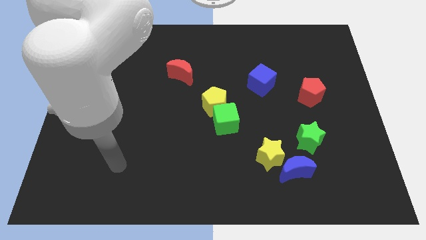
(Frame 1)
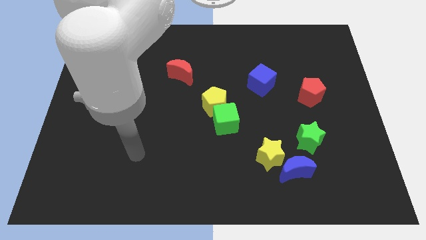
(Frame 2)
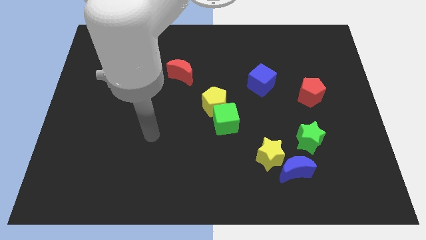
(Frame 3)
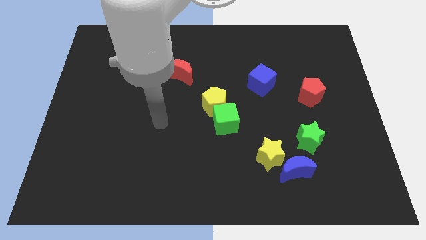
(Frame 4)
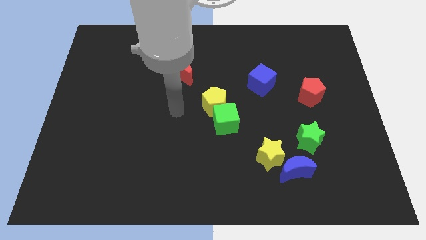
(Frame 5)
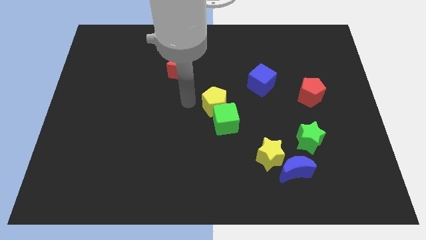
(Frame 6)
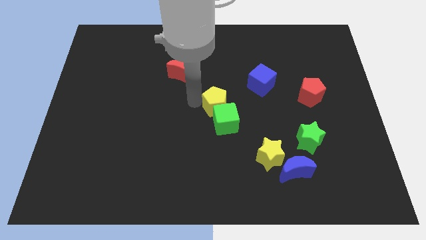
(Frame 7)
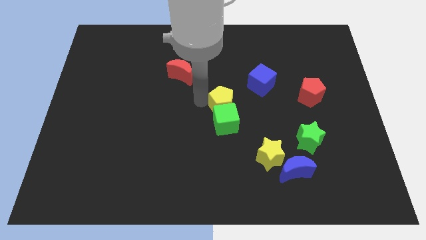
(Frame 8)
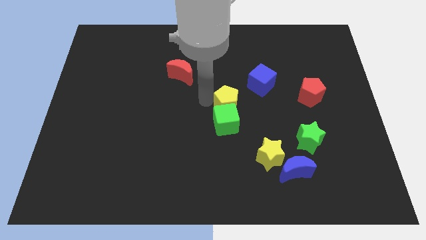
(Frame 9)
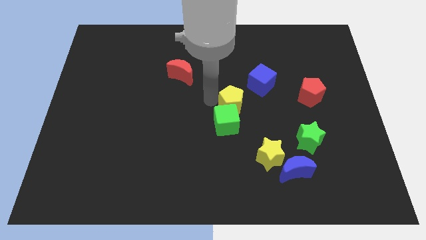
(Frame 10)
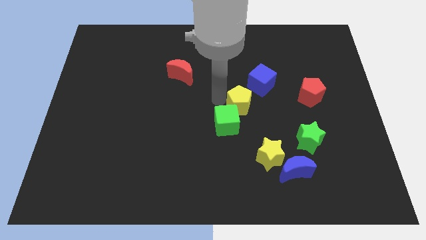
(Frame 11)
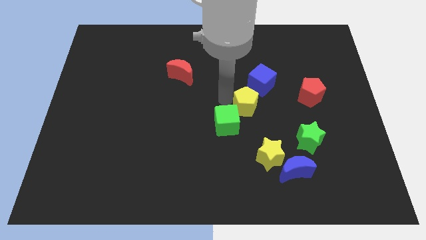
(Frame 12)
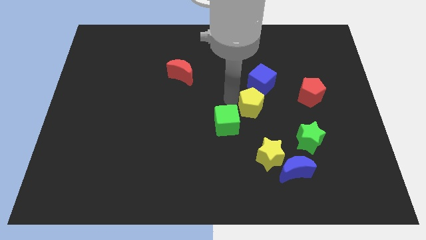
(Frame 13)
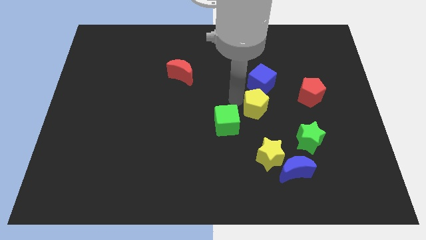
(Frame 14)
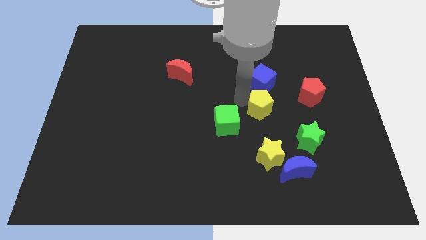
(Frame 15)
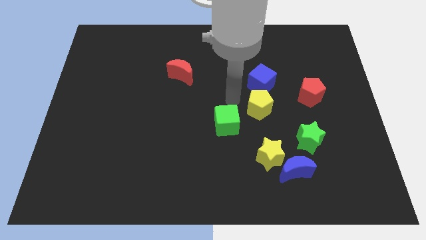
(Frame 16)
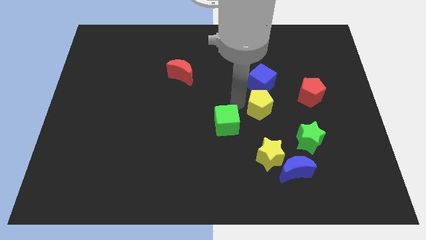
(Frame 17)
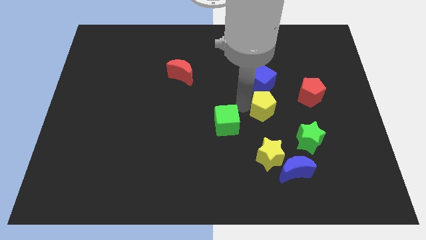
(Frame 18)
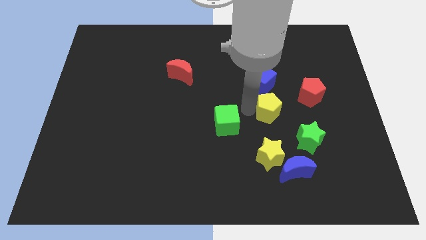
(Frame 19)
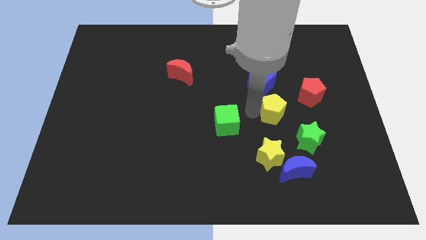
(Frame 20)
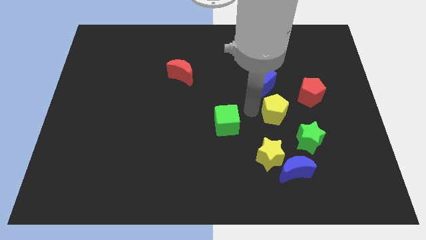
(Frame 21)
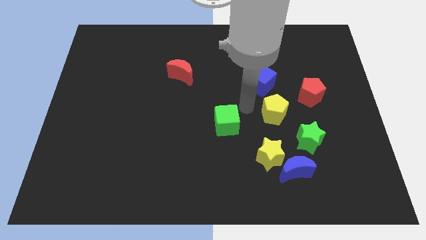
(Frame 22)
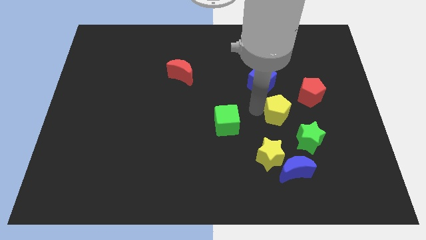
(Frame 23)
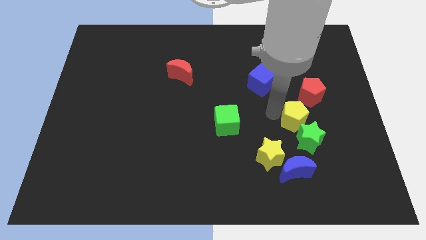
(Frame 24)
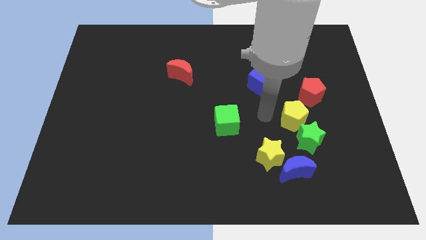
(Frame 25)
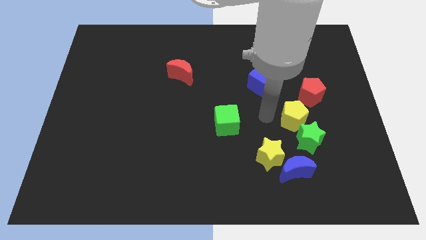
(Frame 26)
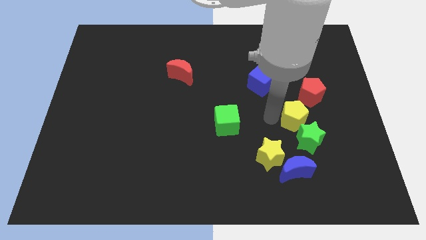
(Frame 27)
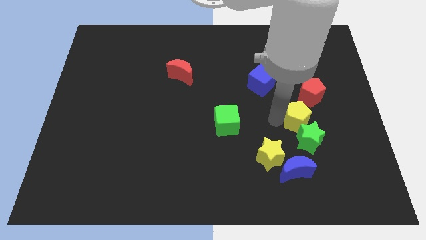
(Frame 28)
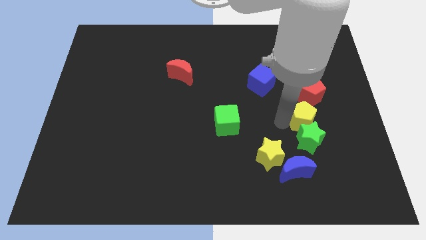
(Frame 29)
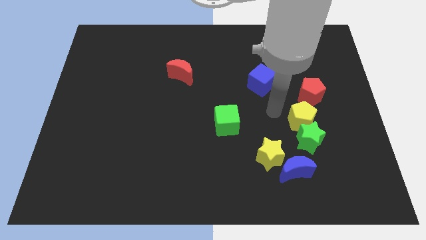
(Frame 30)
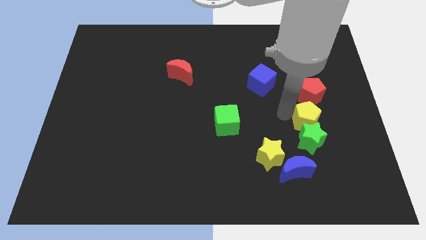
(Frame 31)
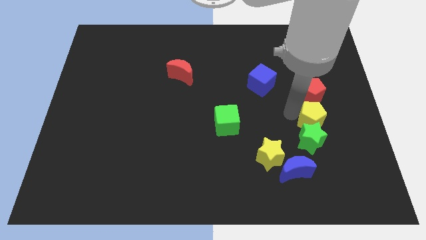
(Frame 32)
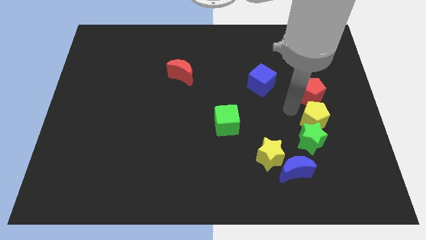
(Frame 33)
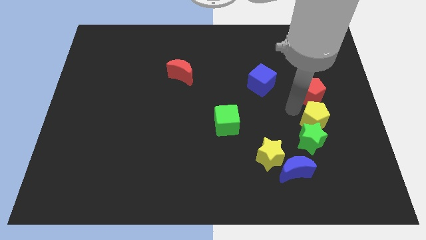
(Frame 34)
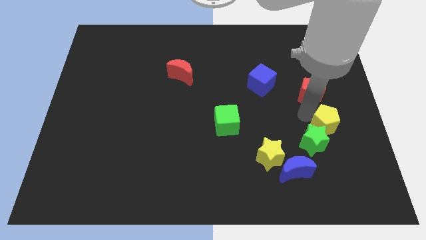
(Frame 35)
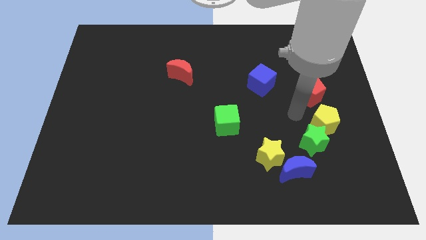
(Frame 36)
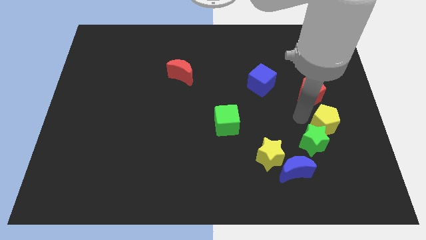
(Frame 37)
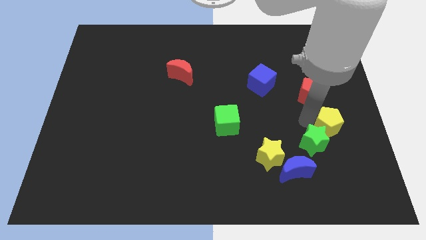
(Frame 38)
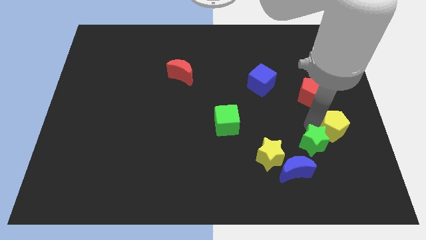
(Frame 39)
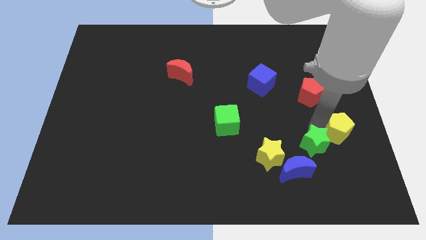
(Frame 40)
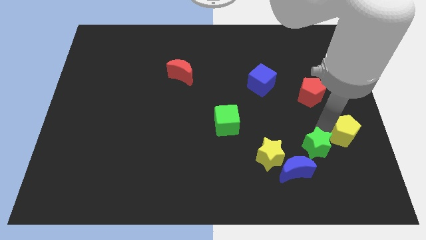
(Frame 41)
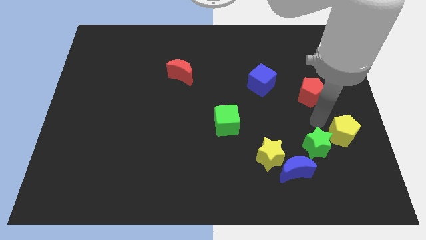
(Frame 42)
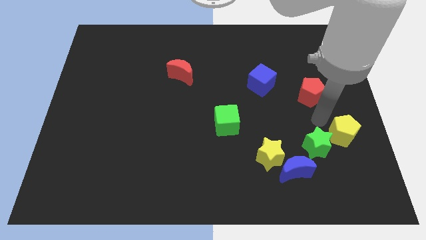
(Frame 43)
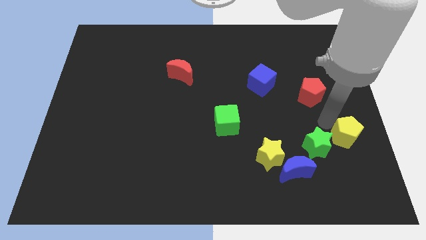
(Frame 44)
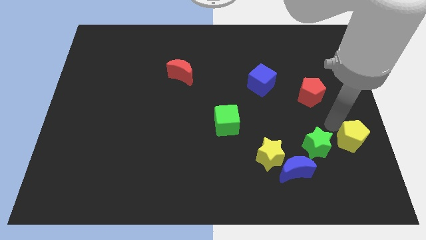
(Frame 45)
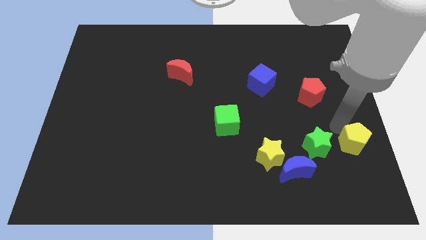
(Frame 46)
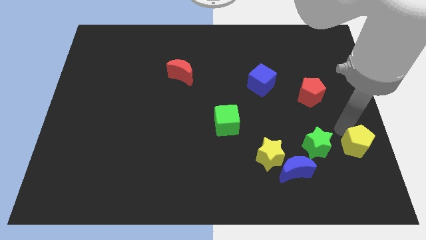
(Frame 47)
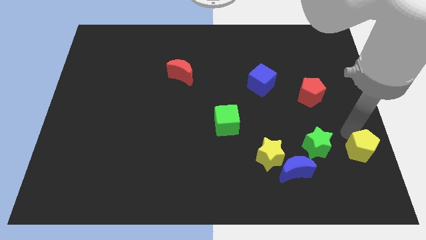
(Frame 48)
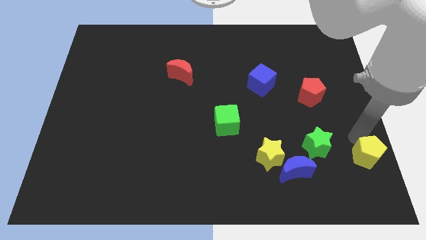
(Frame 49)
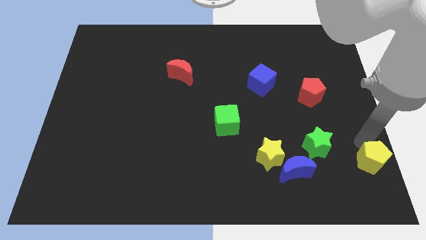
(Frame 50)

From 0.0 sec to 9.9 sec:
push the yellow pentagon to the bottom right

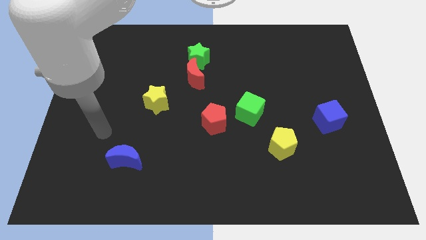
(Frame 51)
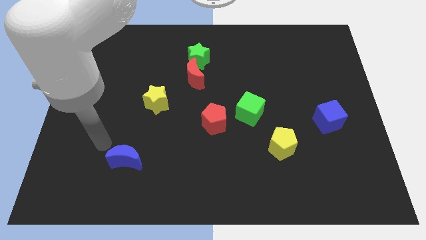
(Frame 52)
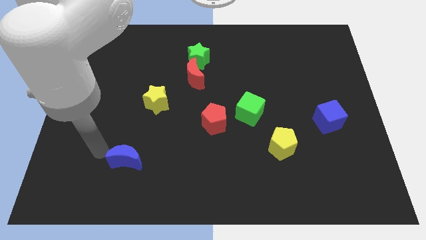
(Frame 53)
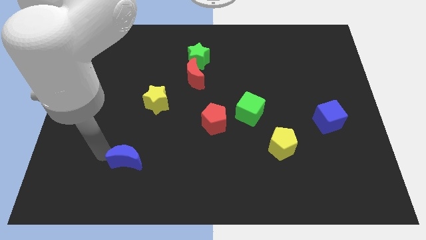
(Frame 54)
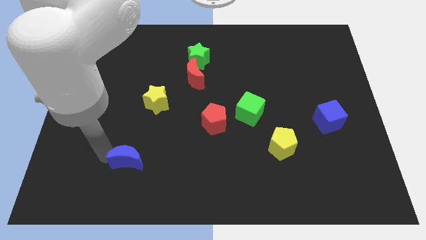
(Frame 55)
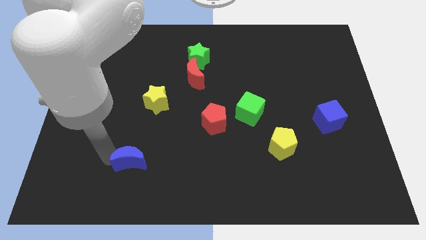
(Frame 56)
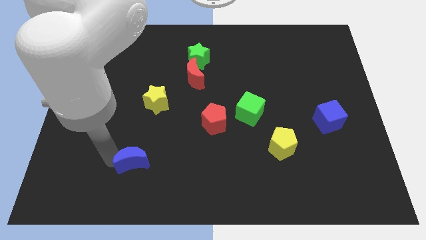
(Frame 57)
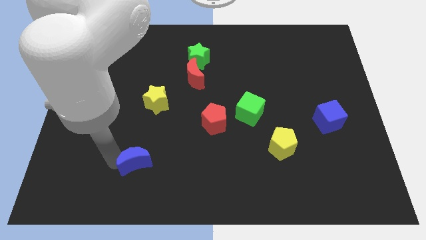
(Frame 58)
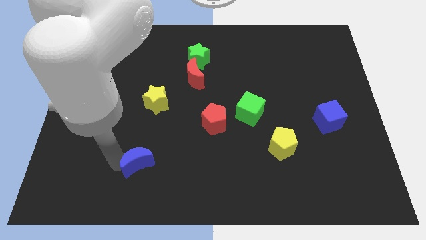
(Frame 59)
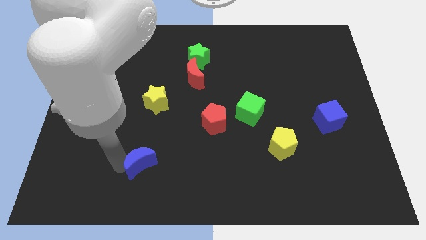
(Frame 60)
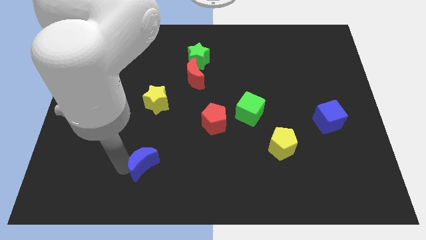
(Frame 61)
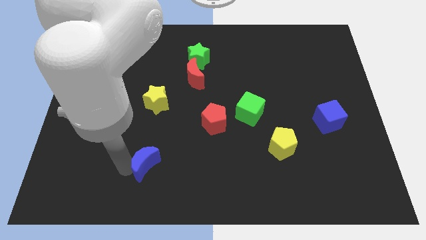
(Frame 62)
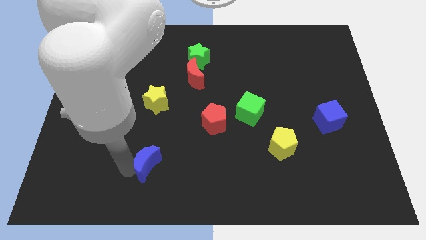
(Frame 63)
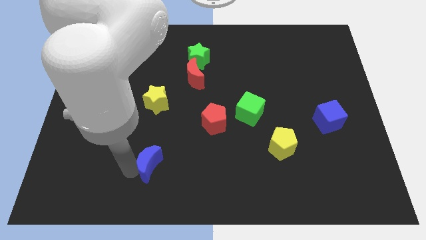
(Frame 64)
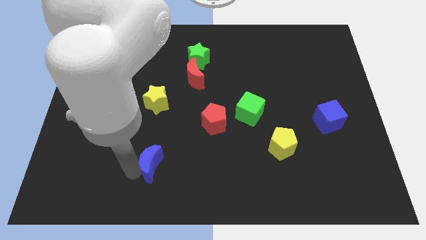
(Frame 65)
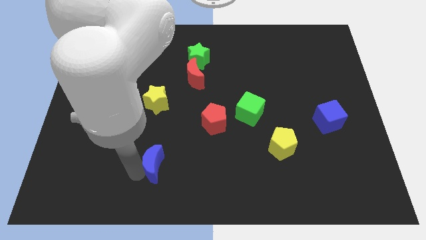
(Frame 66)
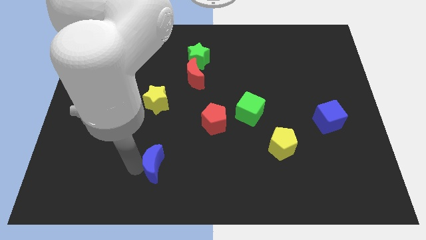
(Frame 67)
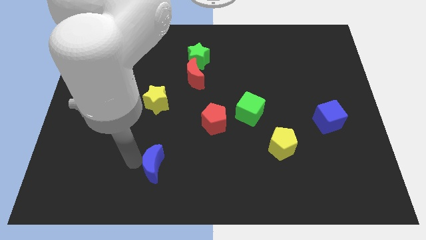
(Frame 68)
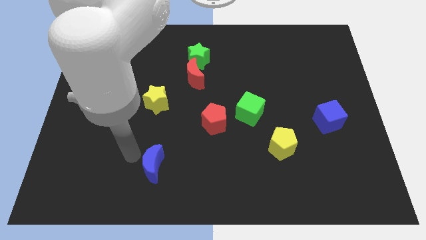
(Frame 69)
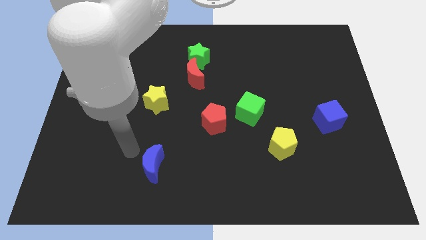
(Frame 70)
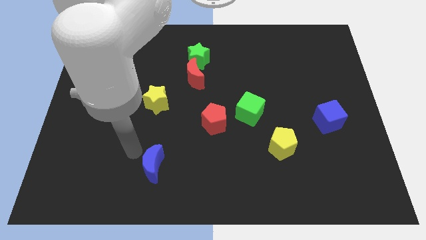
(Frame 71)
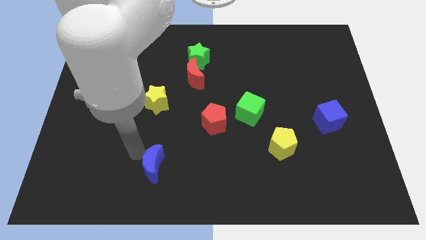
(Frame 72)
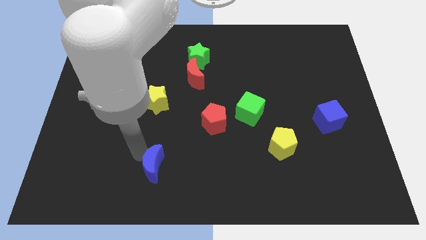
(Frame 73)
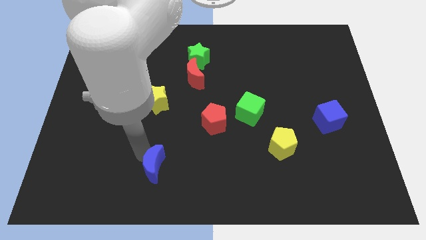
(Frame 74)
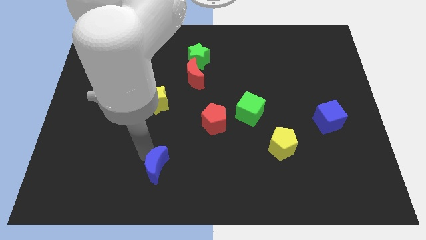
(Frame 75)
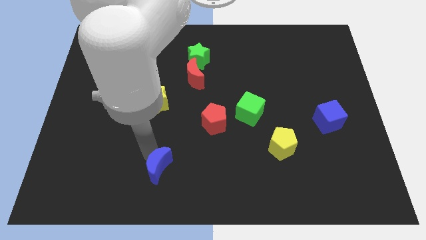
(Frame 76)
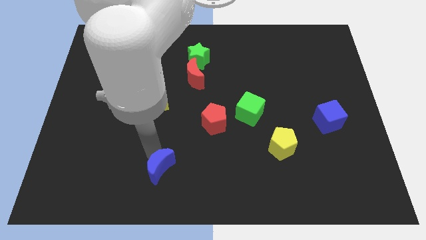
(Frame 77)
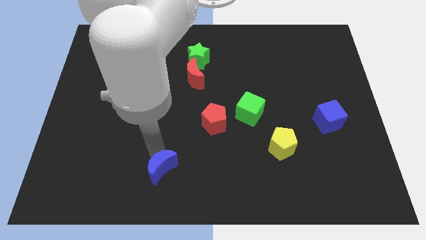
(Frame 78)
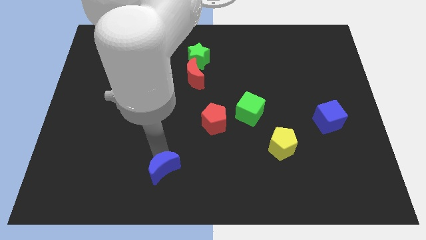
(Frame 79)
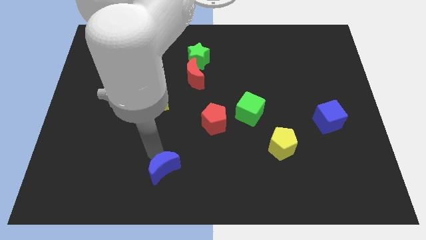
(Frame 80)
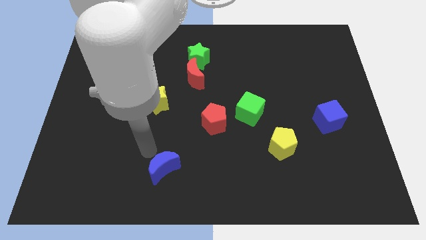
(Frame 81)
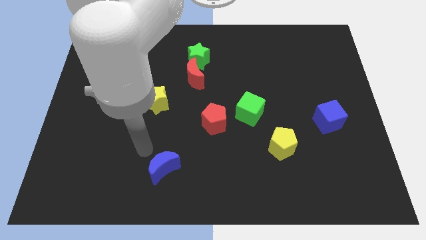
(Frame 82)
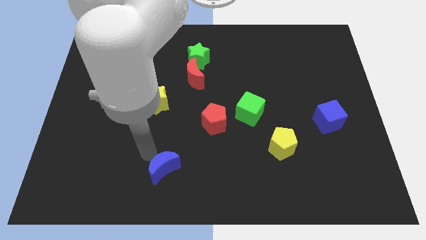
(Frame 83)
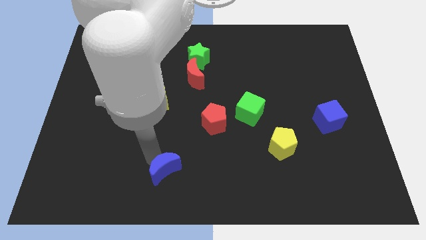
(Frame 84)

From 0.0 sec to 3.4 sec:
put the blue moon to the bottom side
